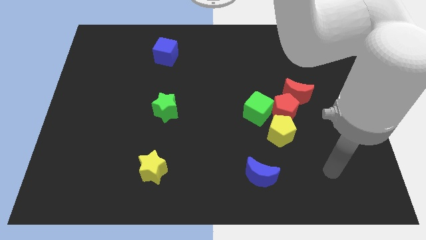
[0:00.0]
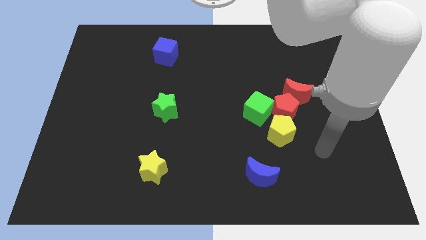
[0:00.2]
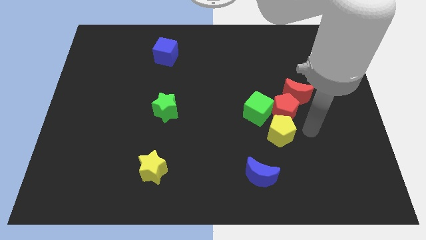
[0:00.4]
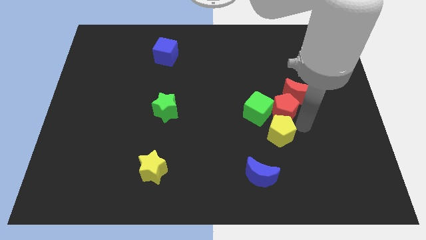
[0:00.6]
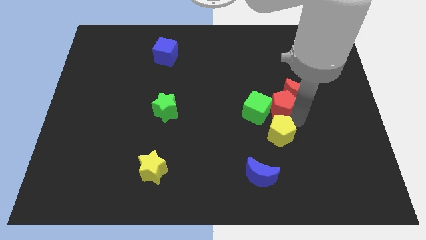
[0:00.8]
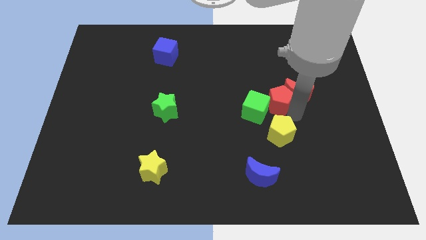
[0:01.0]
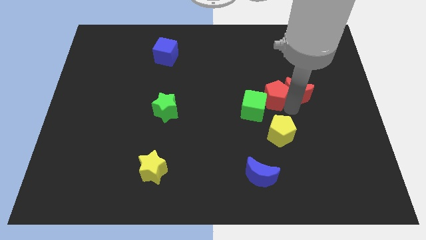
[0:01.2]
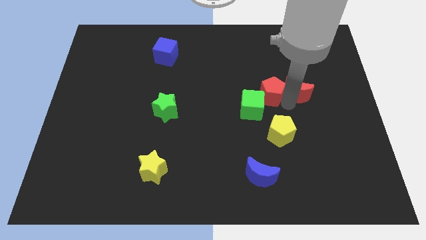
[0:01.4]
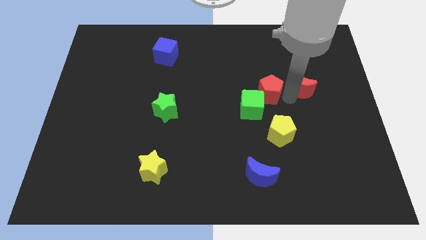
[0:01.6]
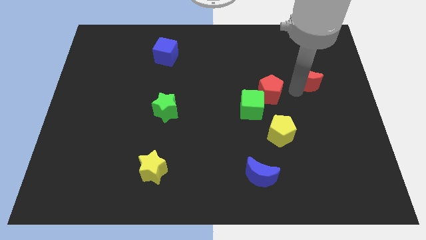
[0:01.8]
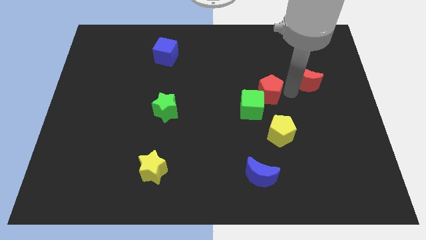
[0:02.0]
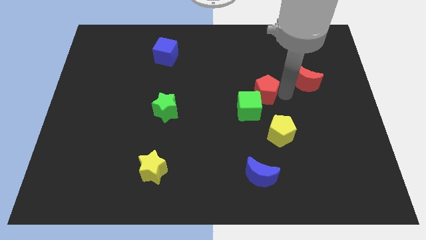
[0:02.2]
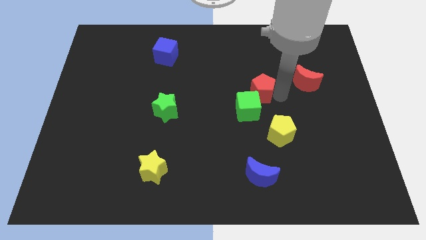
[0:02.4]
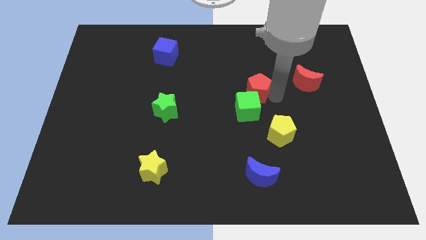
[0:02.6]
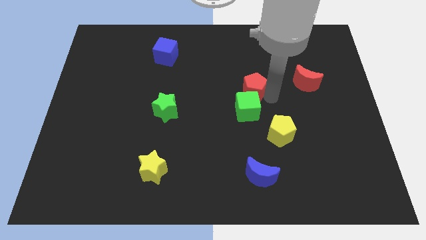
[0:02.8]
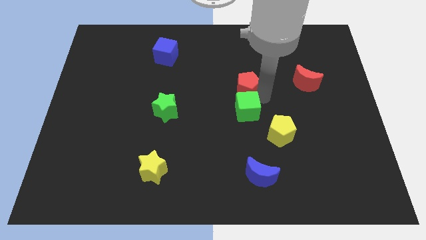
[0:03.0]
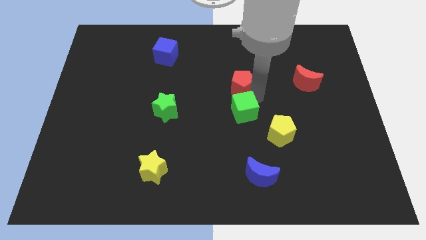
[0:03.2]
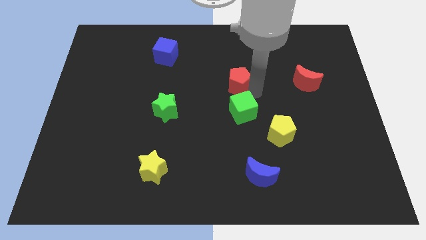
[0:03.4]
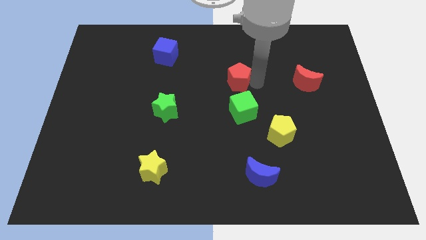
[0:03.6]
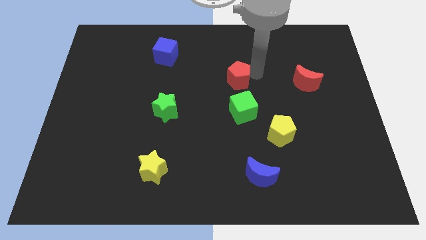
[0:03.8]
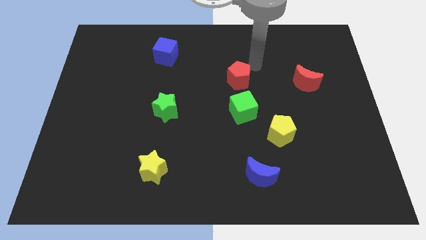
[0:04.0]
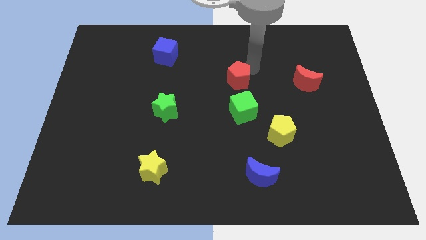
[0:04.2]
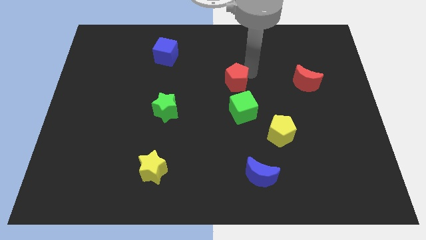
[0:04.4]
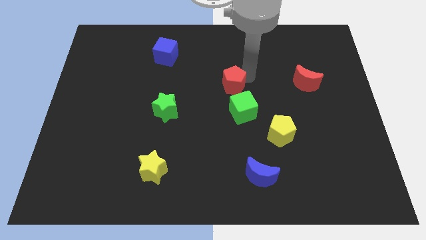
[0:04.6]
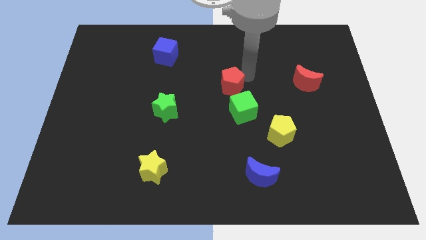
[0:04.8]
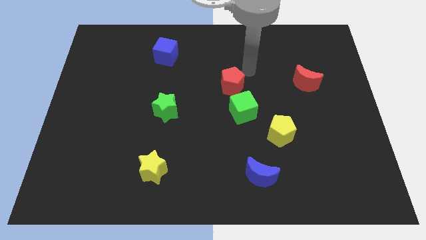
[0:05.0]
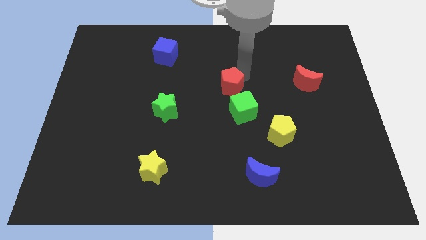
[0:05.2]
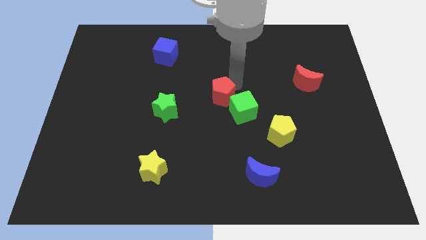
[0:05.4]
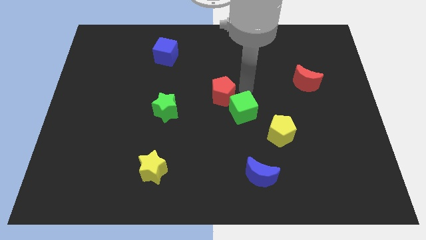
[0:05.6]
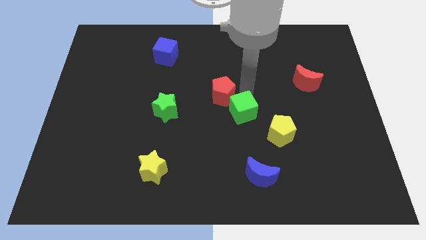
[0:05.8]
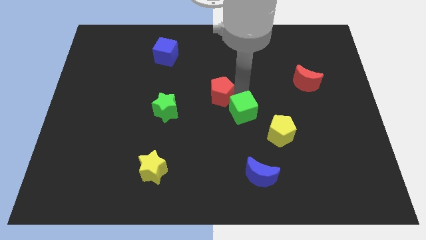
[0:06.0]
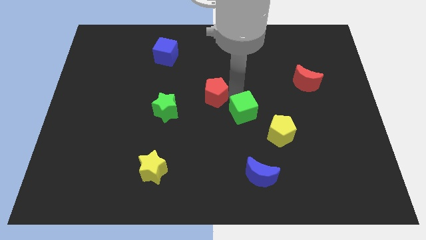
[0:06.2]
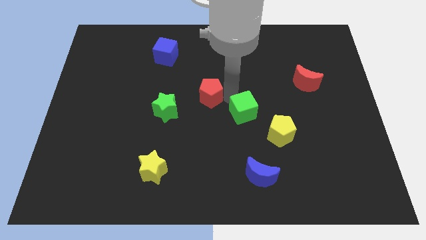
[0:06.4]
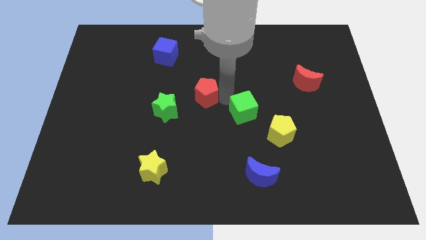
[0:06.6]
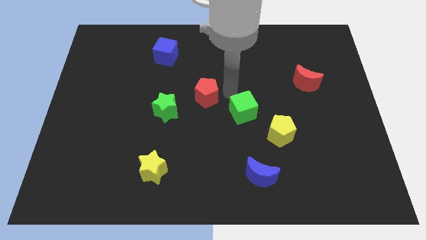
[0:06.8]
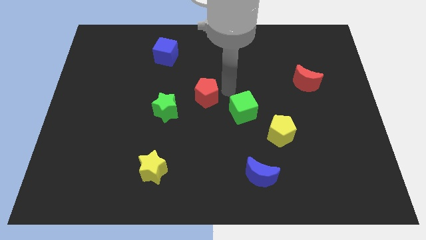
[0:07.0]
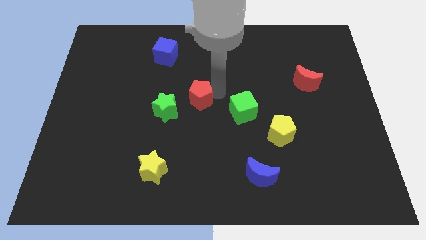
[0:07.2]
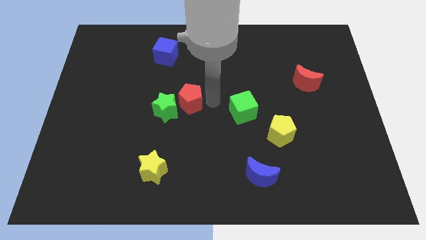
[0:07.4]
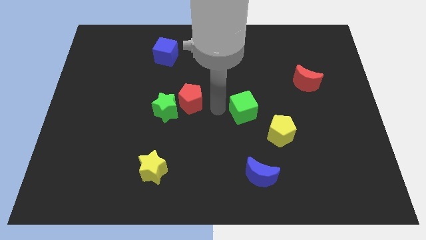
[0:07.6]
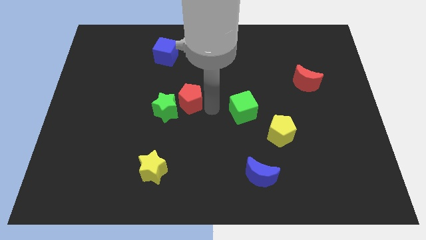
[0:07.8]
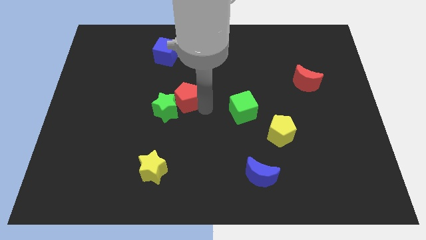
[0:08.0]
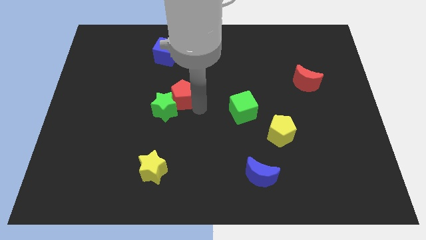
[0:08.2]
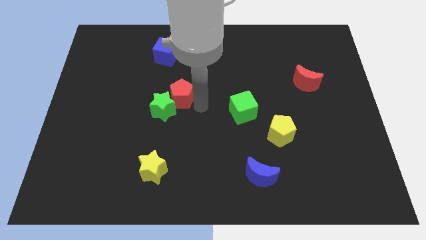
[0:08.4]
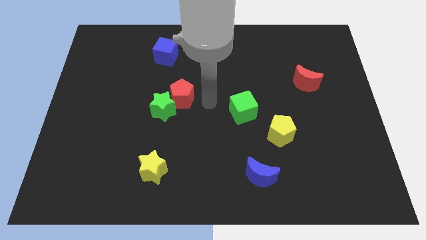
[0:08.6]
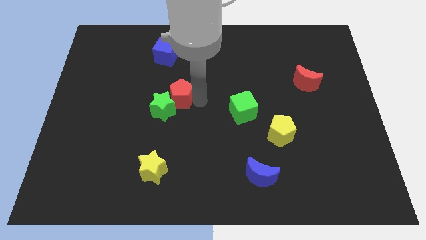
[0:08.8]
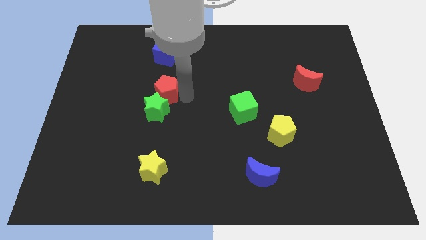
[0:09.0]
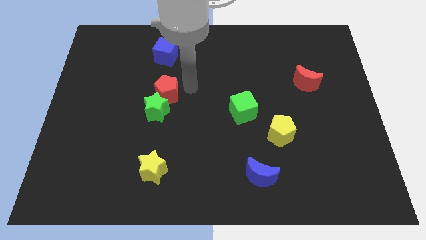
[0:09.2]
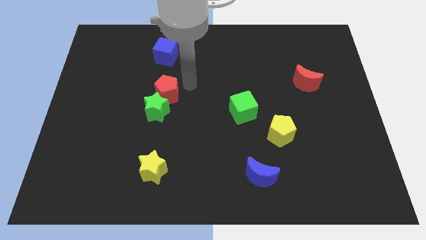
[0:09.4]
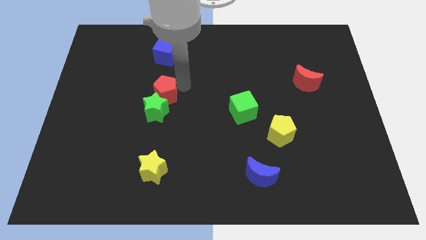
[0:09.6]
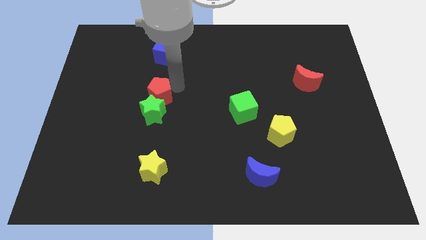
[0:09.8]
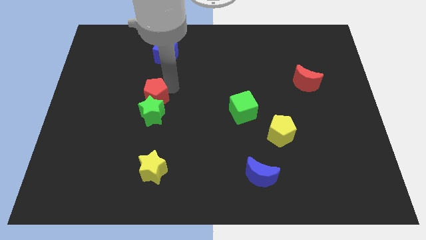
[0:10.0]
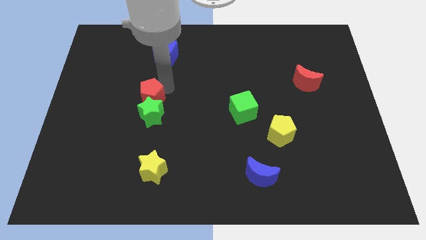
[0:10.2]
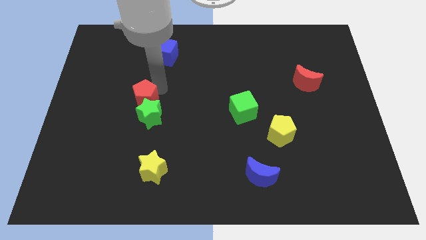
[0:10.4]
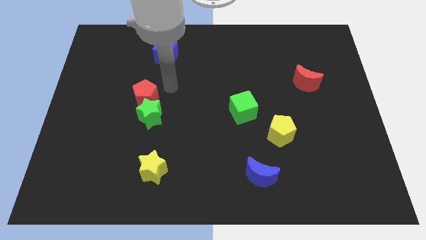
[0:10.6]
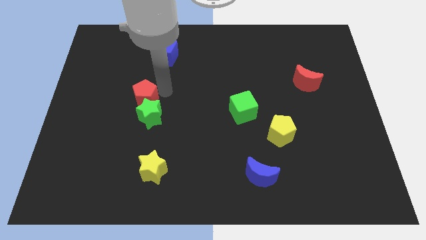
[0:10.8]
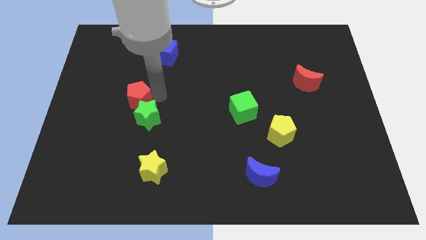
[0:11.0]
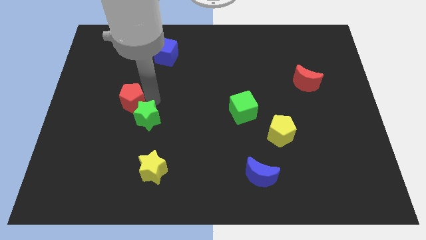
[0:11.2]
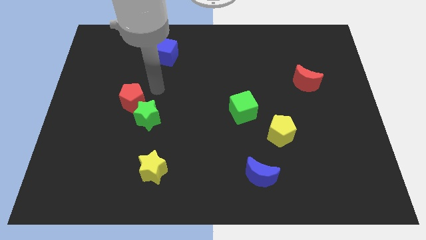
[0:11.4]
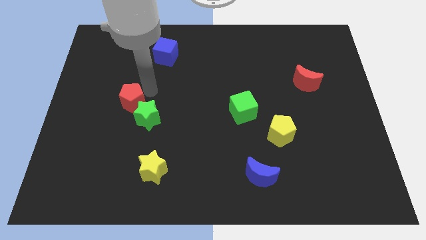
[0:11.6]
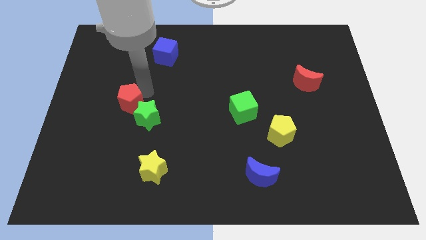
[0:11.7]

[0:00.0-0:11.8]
slide the red pentagon left of the green star

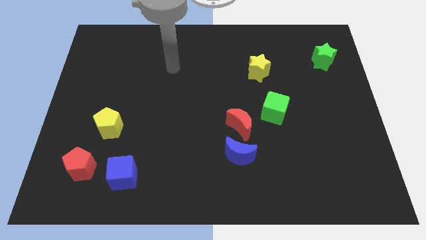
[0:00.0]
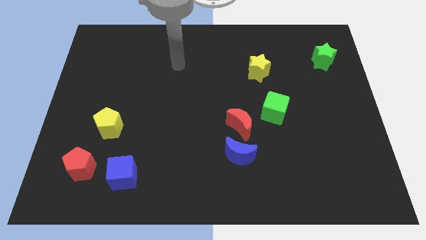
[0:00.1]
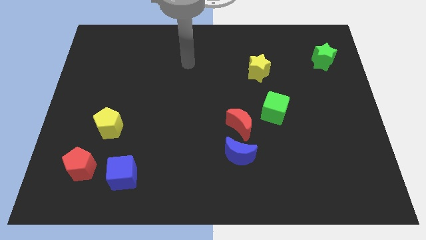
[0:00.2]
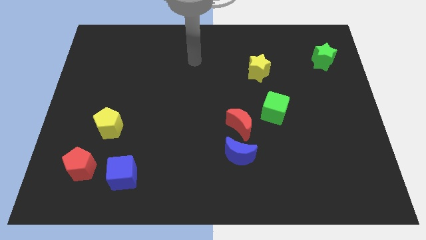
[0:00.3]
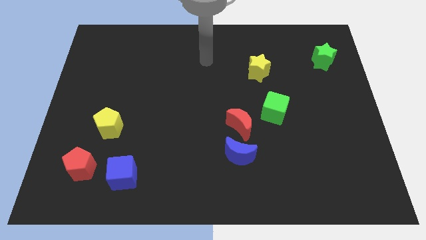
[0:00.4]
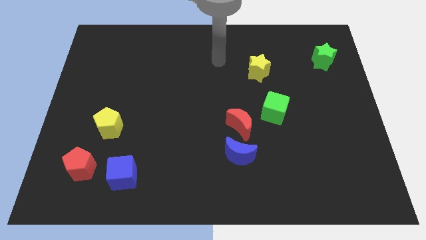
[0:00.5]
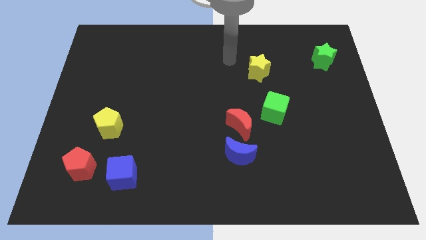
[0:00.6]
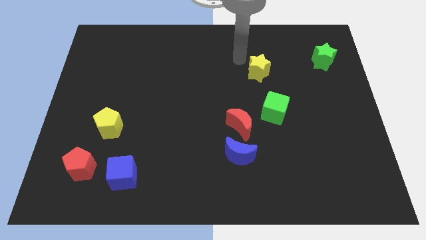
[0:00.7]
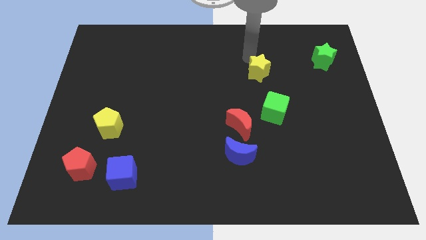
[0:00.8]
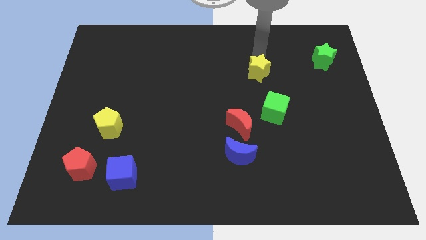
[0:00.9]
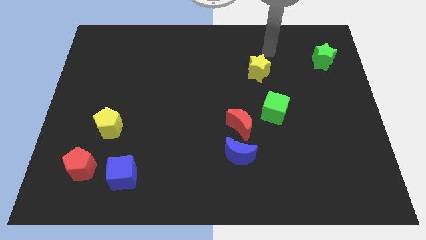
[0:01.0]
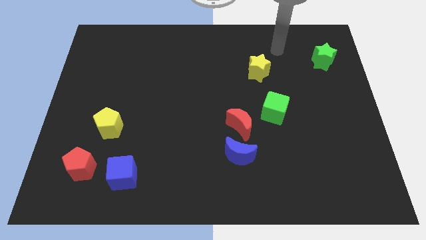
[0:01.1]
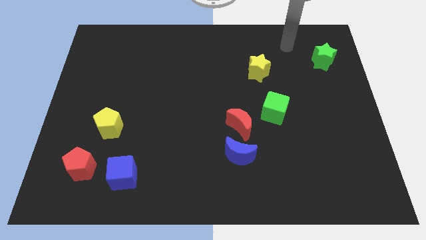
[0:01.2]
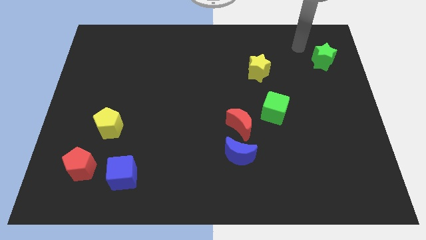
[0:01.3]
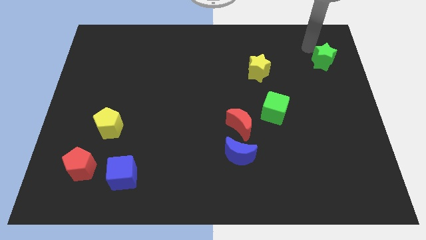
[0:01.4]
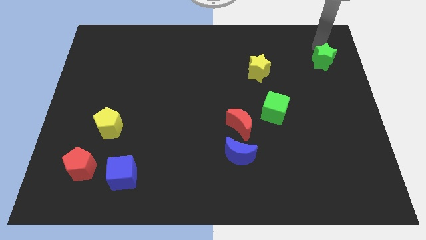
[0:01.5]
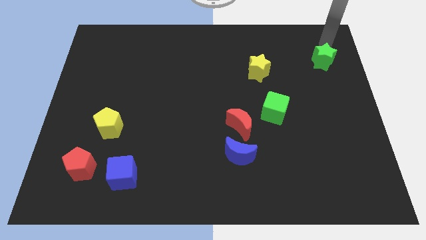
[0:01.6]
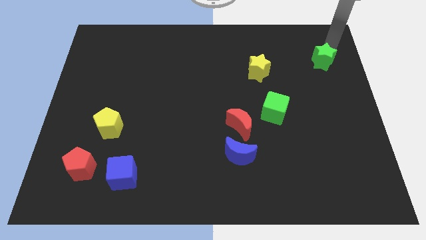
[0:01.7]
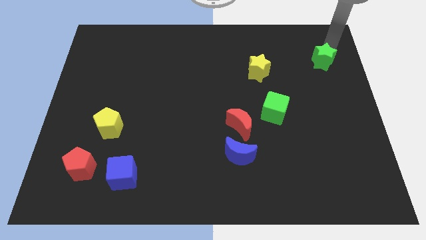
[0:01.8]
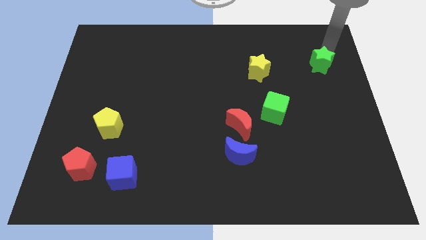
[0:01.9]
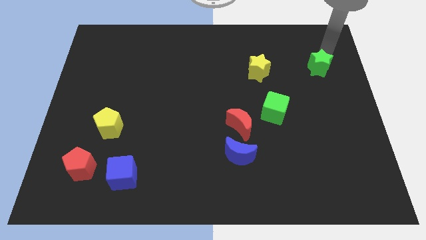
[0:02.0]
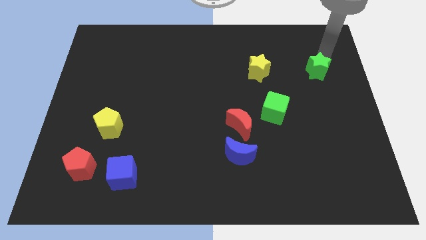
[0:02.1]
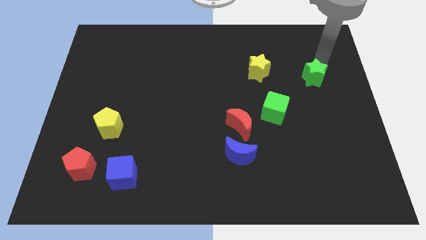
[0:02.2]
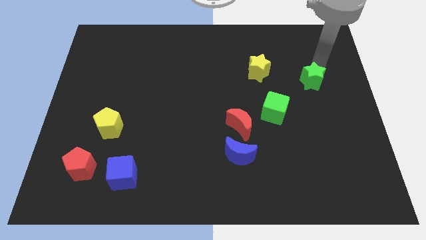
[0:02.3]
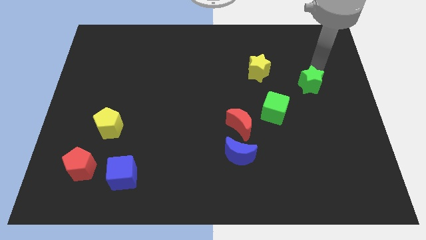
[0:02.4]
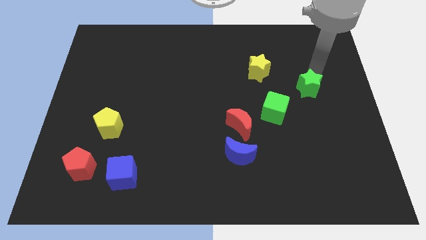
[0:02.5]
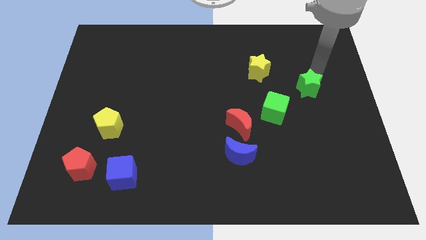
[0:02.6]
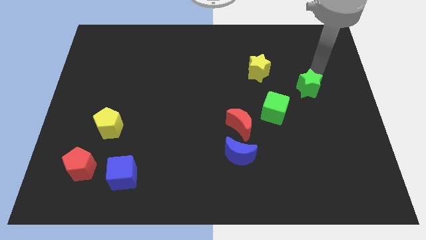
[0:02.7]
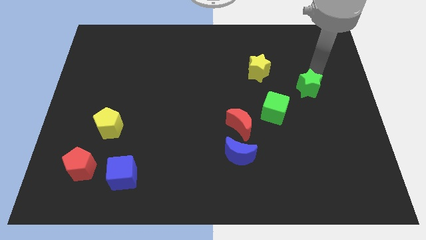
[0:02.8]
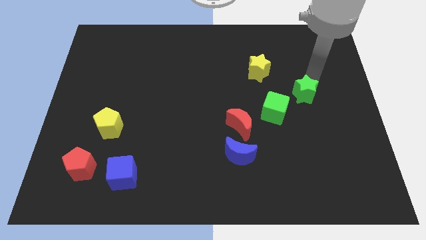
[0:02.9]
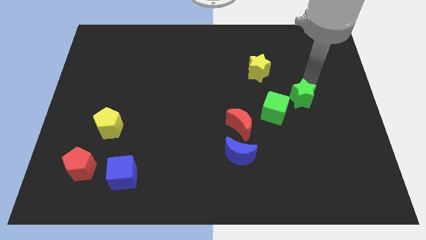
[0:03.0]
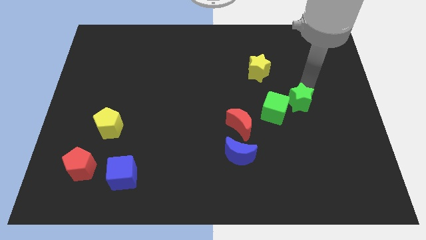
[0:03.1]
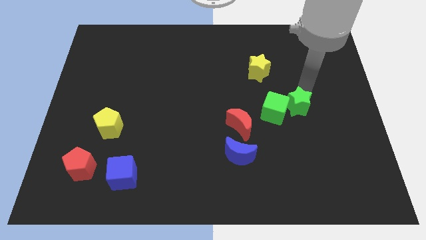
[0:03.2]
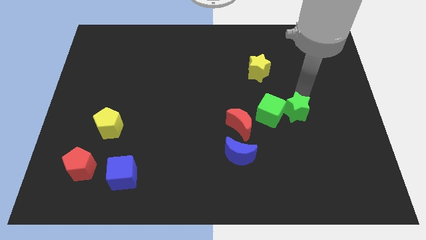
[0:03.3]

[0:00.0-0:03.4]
move the green star just right of the red moon
